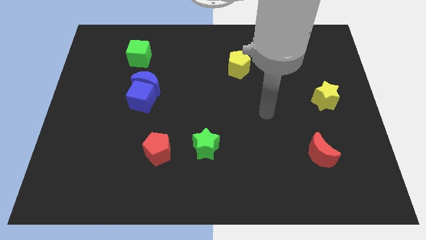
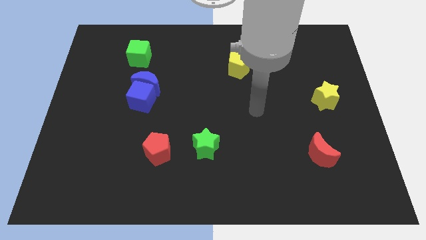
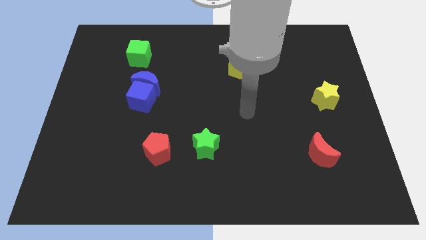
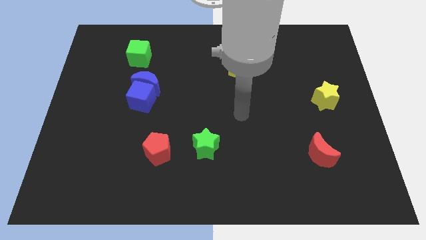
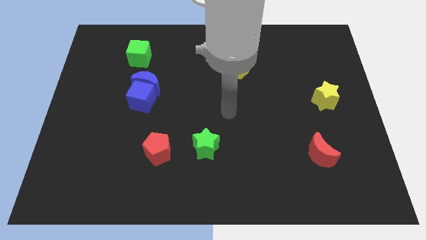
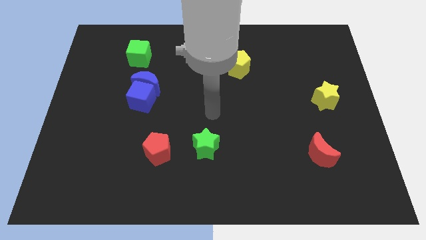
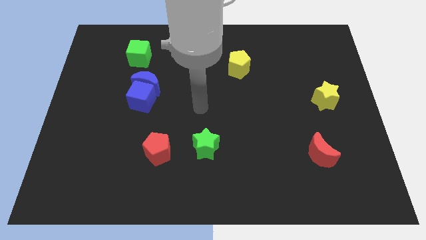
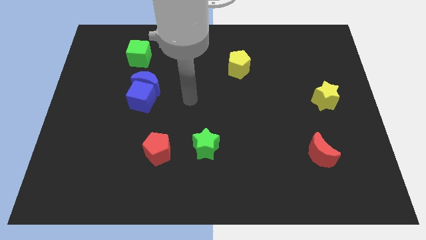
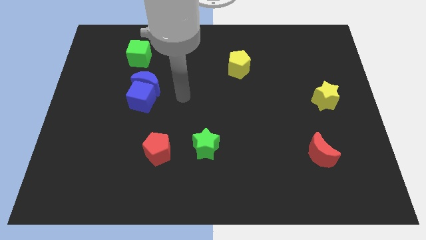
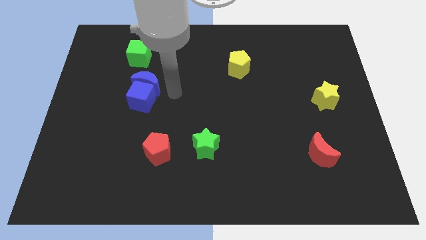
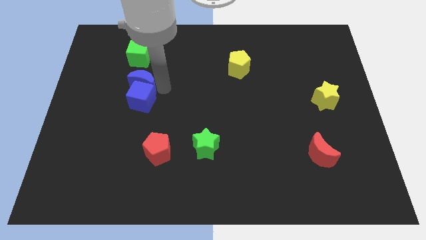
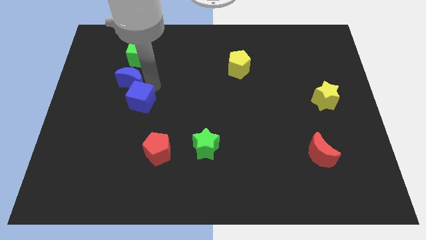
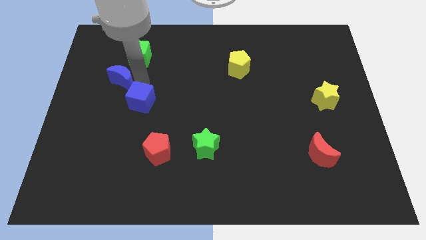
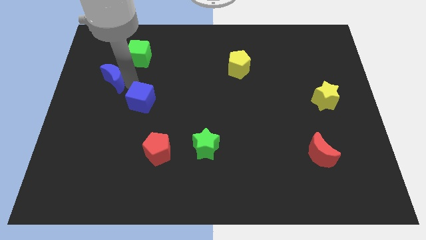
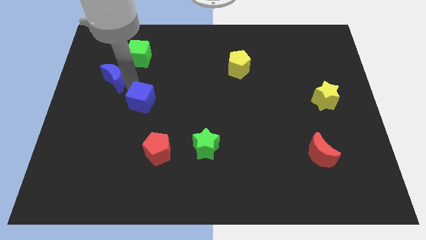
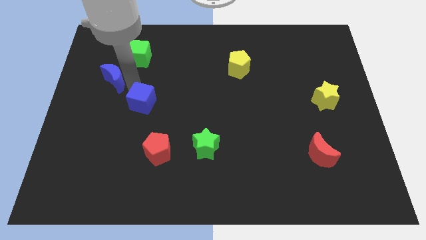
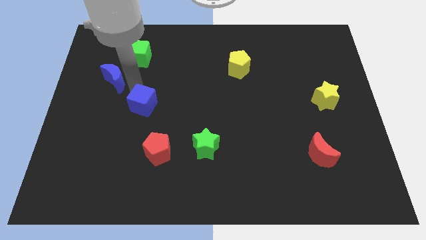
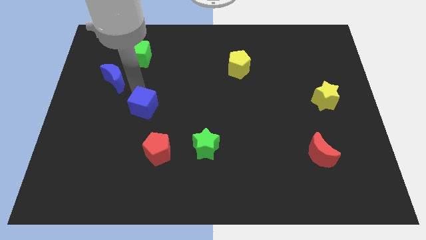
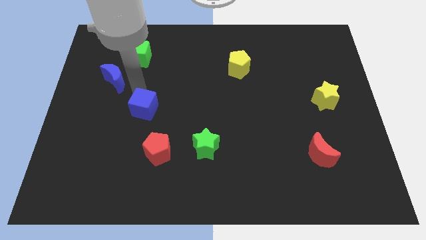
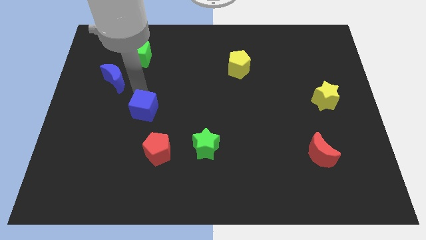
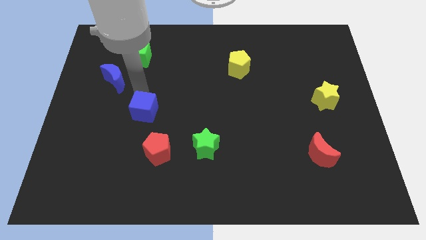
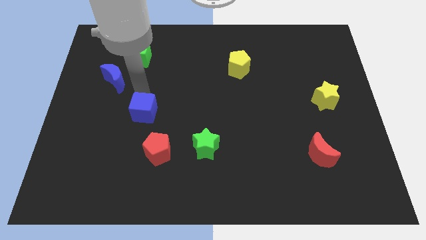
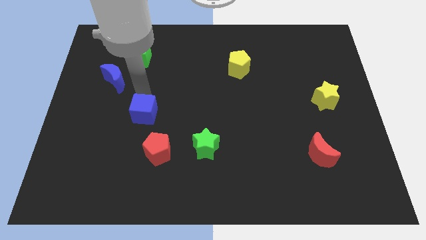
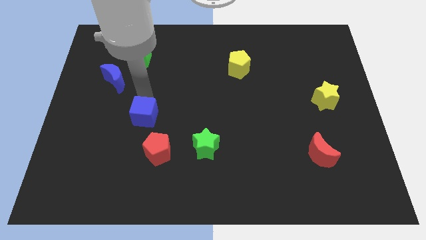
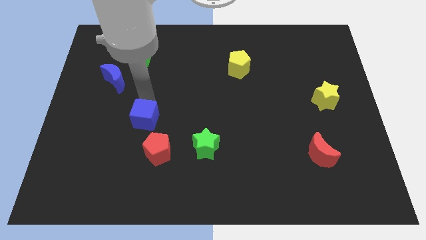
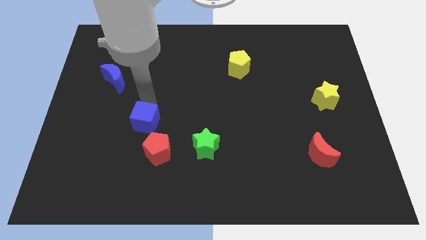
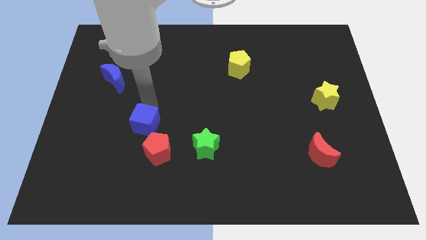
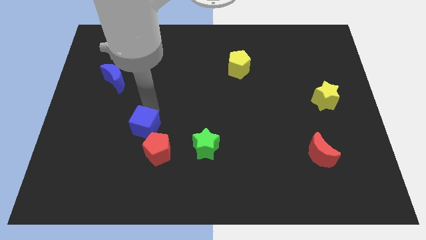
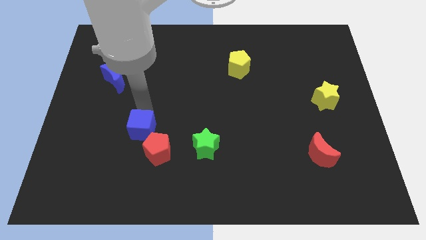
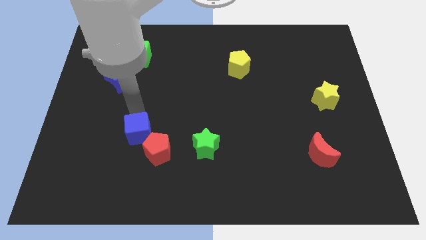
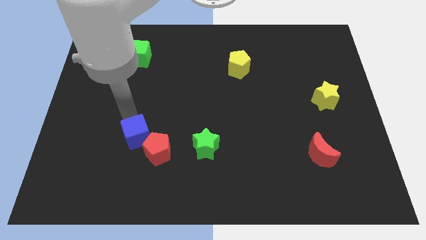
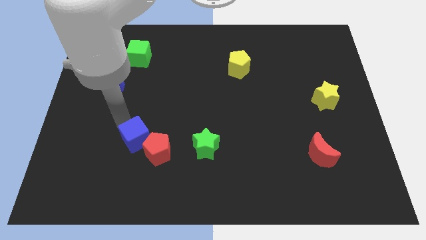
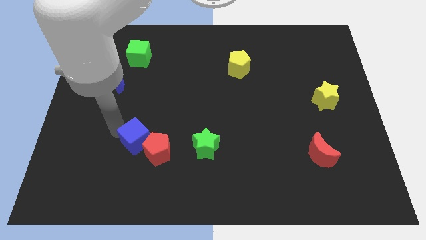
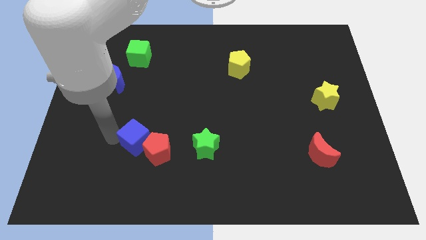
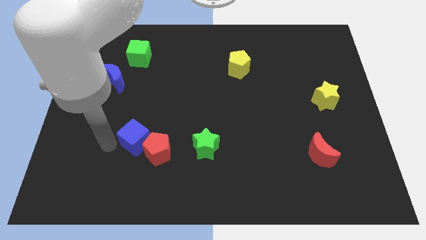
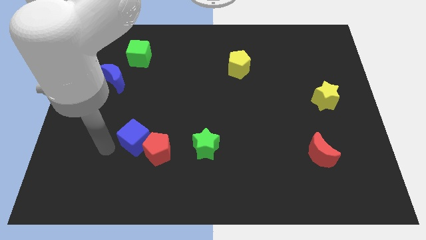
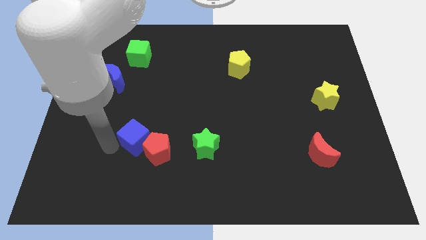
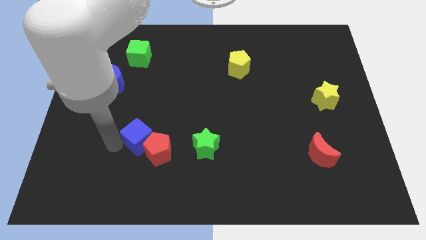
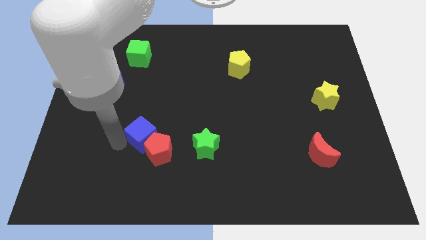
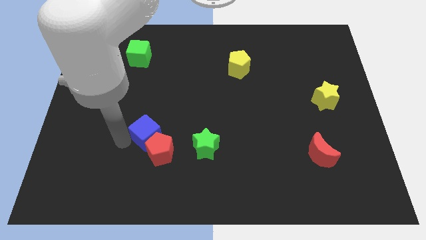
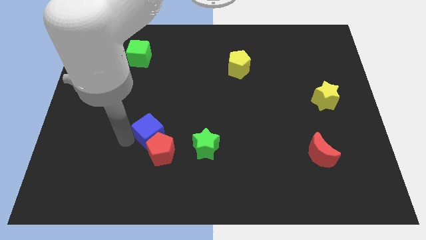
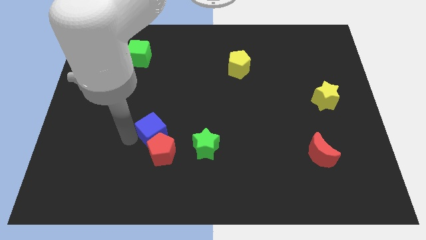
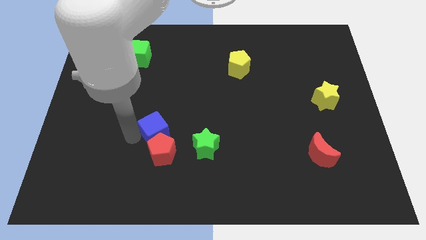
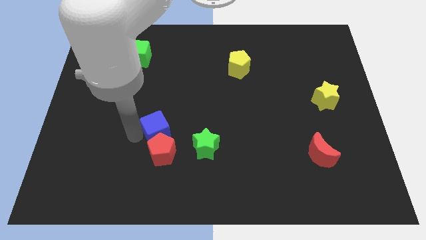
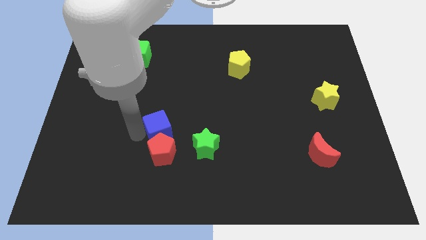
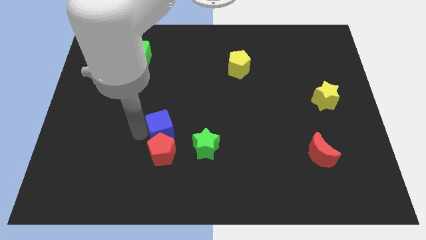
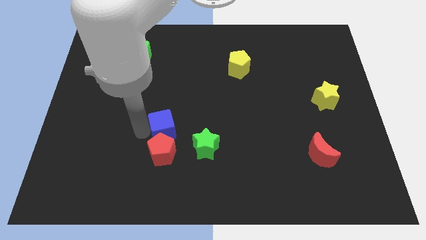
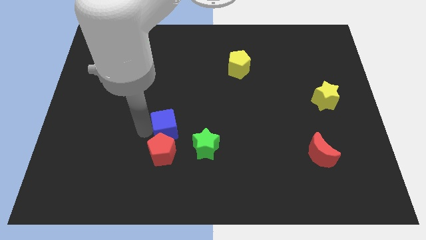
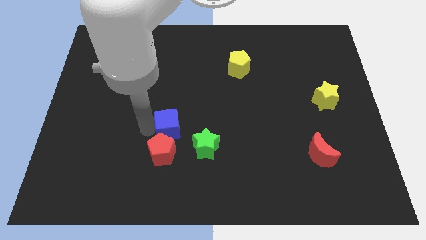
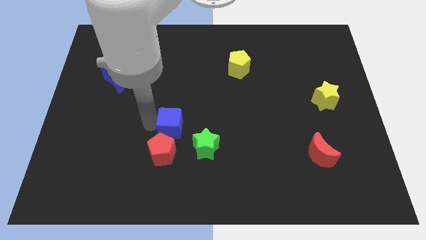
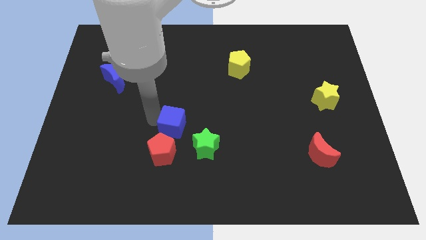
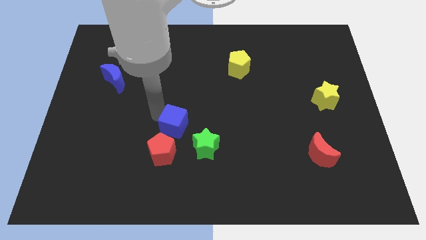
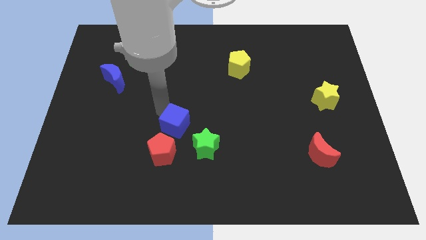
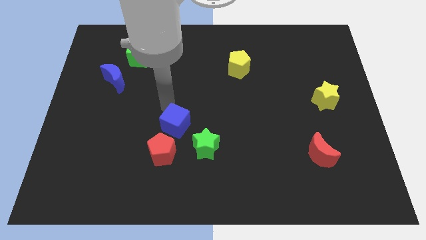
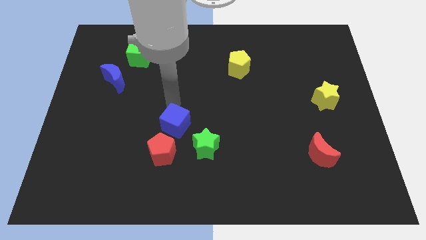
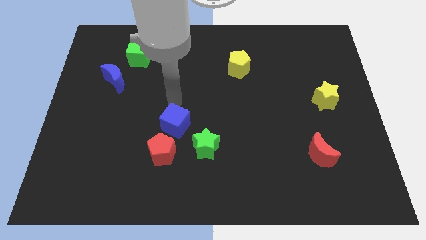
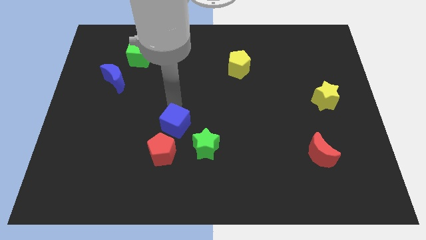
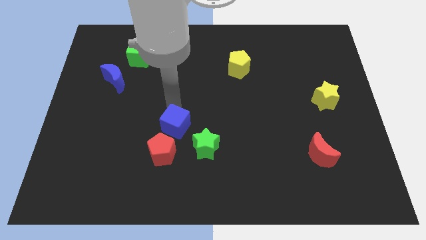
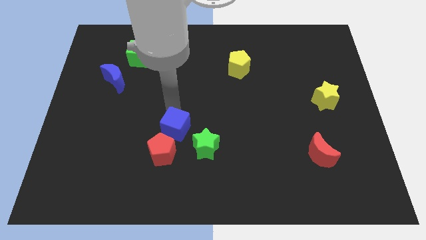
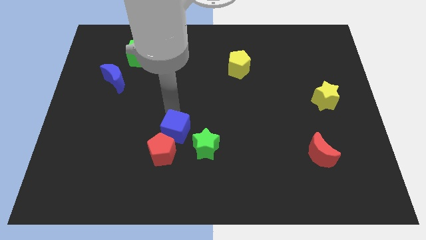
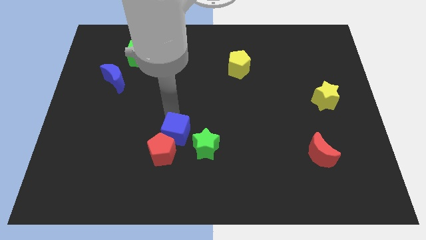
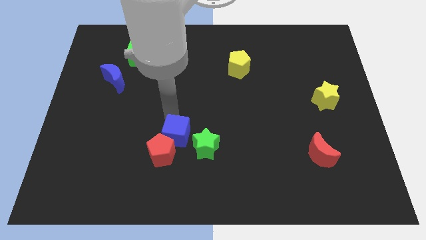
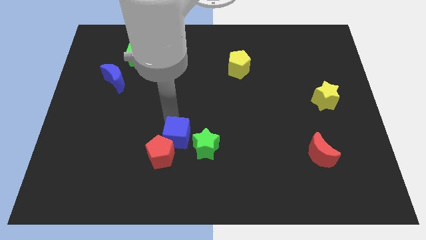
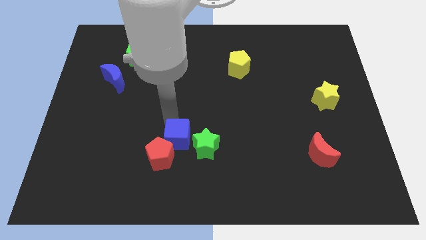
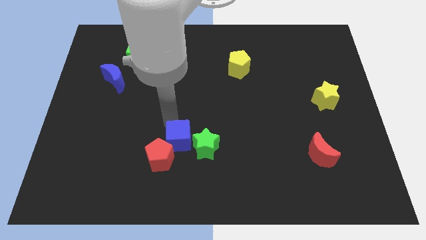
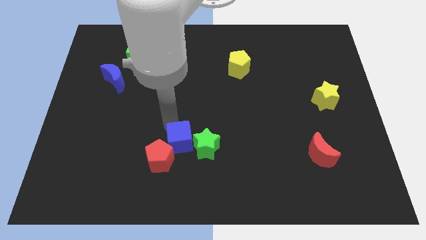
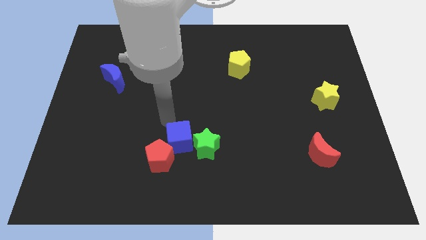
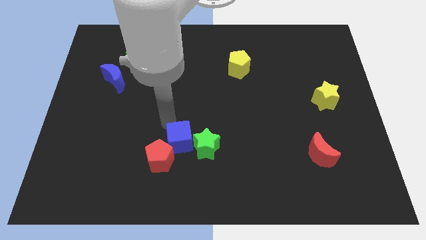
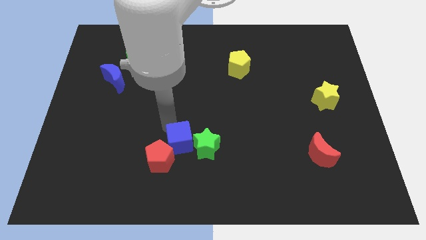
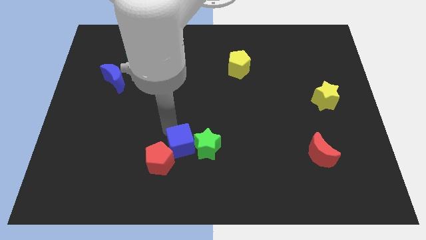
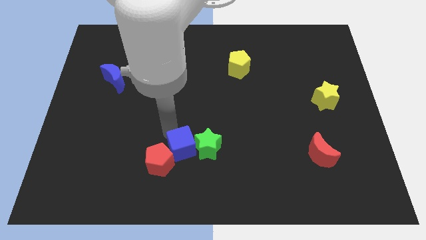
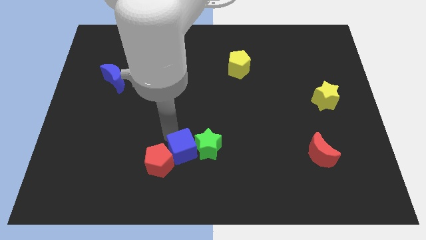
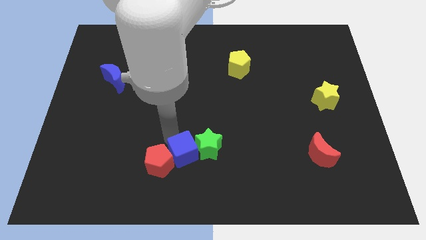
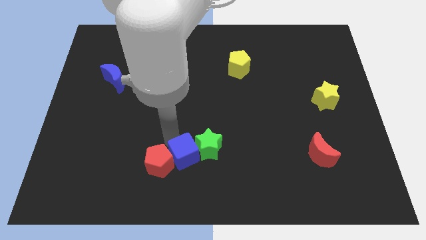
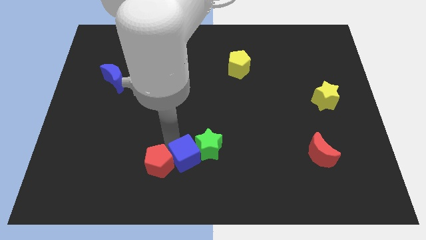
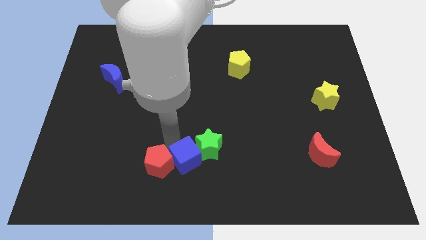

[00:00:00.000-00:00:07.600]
put the blue cube to the bottom side
